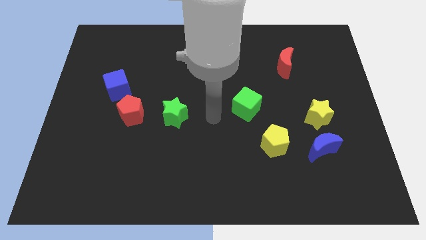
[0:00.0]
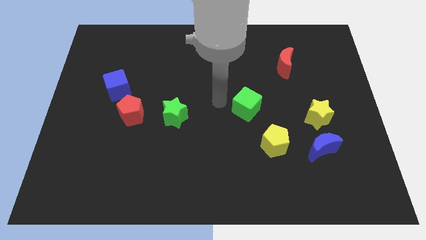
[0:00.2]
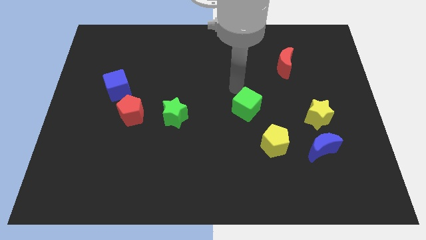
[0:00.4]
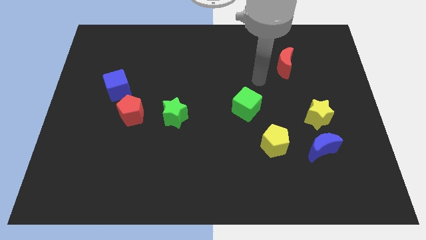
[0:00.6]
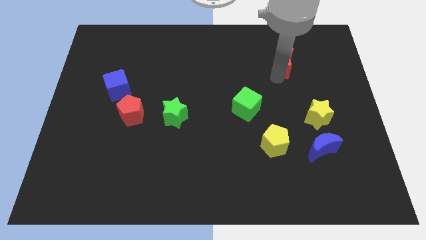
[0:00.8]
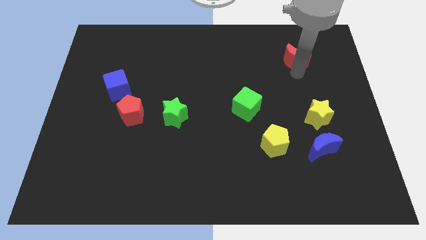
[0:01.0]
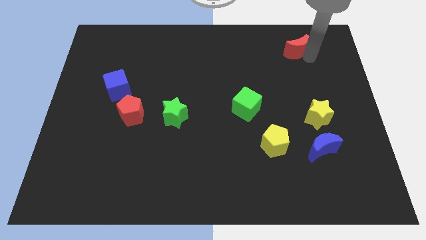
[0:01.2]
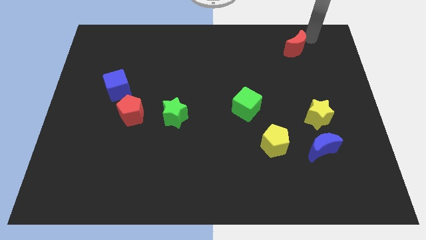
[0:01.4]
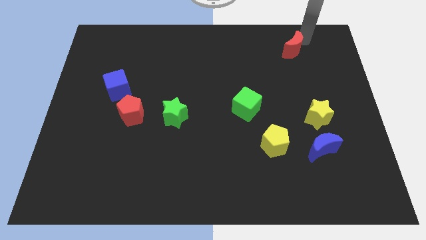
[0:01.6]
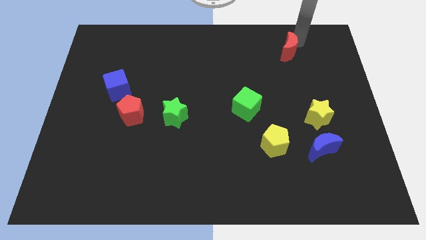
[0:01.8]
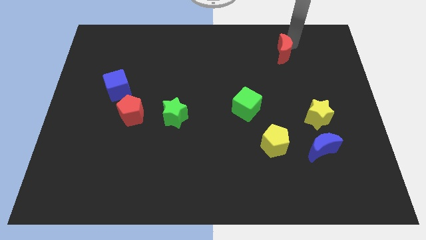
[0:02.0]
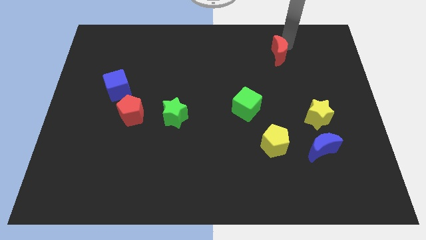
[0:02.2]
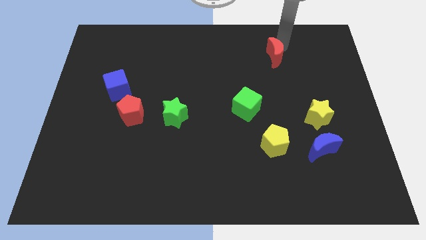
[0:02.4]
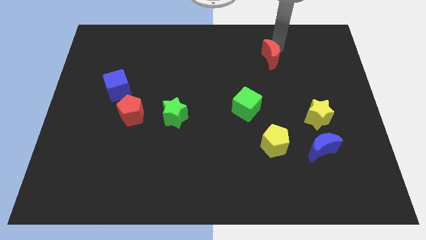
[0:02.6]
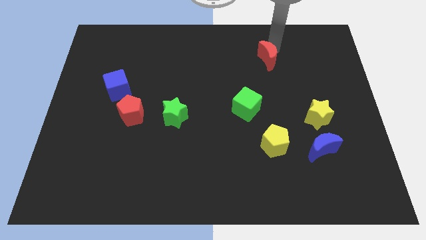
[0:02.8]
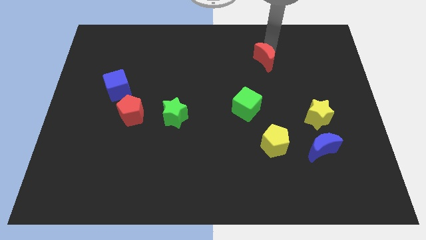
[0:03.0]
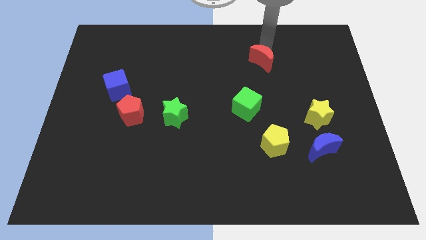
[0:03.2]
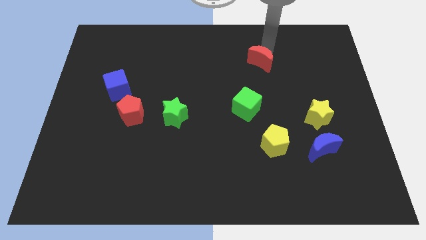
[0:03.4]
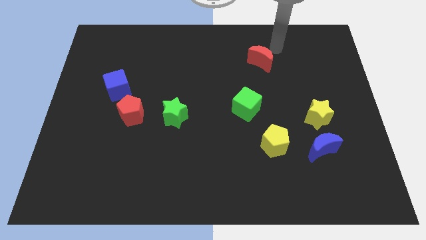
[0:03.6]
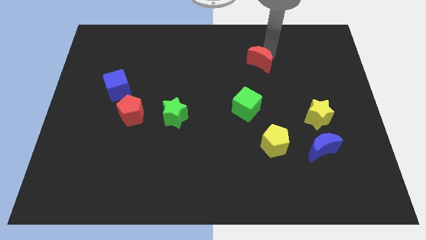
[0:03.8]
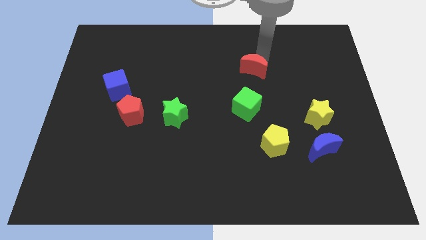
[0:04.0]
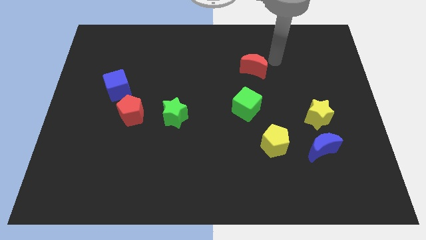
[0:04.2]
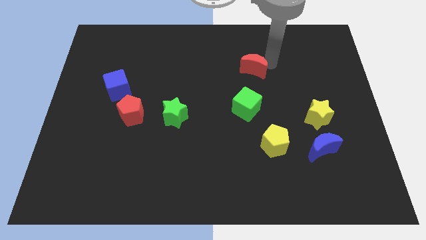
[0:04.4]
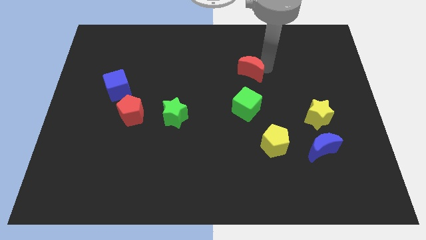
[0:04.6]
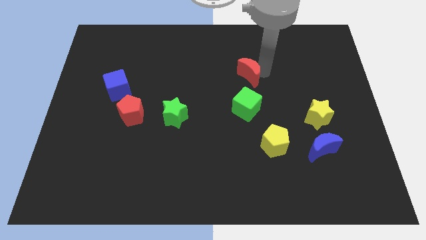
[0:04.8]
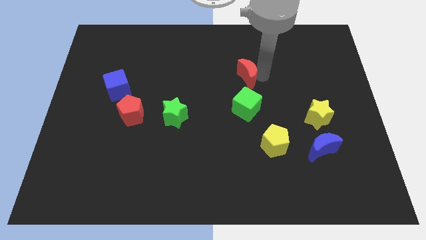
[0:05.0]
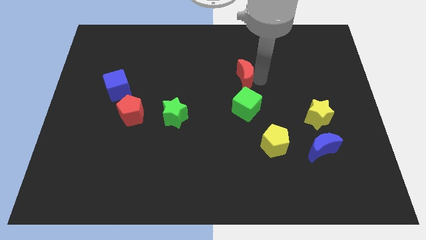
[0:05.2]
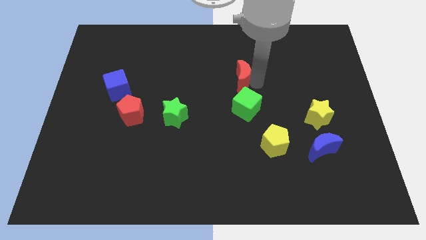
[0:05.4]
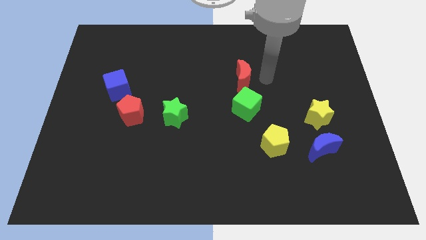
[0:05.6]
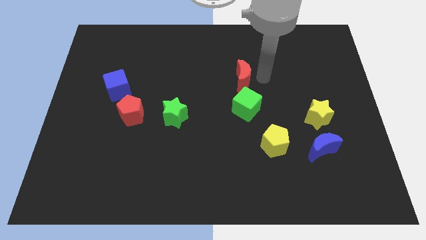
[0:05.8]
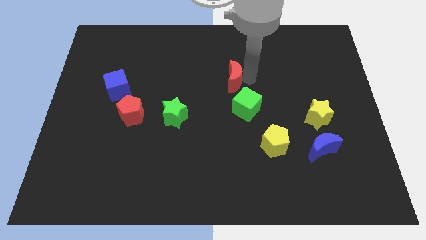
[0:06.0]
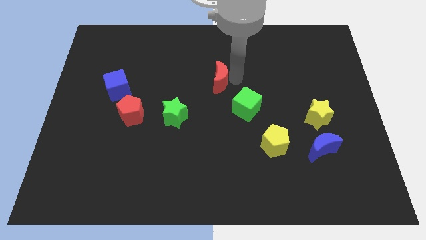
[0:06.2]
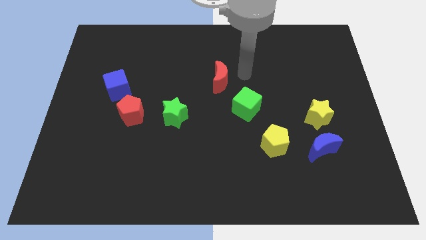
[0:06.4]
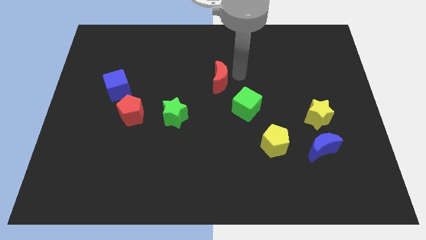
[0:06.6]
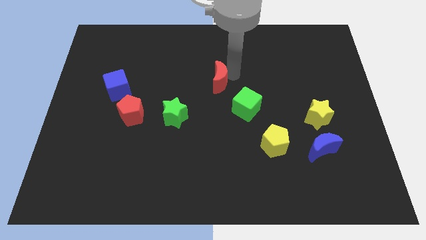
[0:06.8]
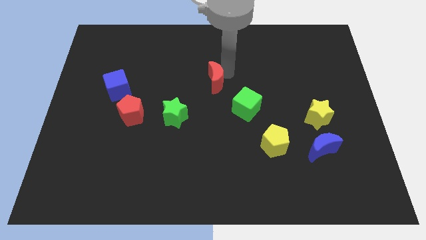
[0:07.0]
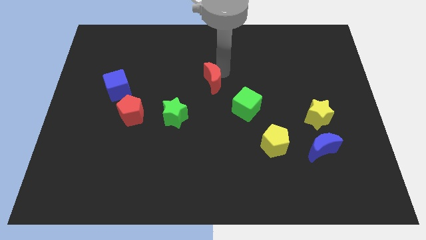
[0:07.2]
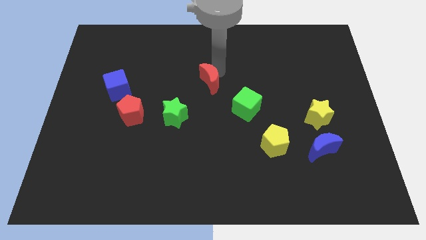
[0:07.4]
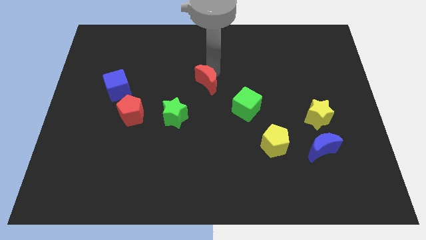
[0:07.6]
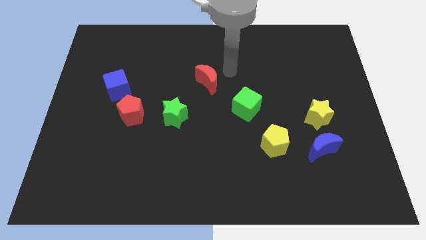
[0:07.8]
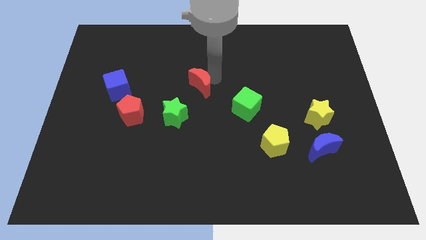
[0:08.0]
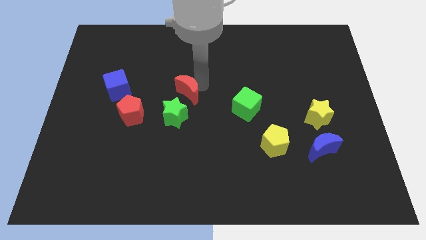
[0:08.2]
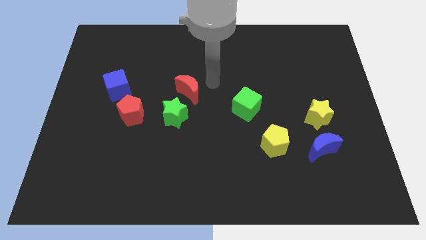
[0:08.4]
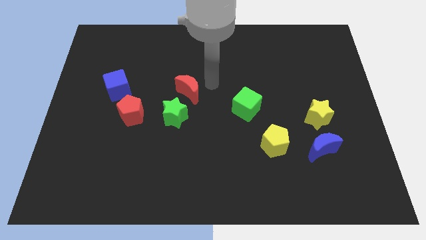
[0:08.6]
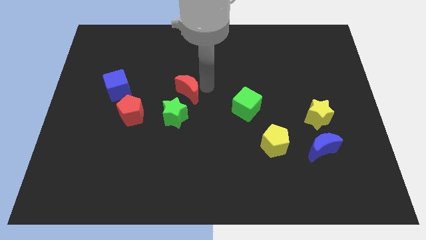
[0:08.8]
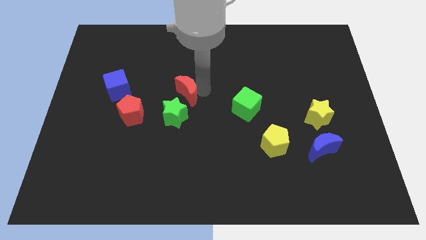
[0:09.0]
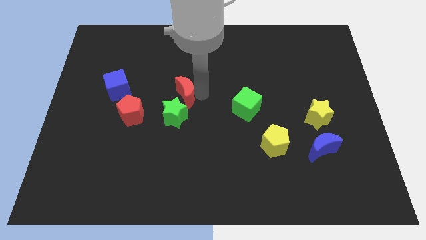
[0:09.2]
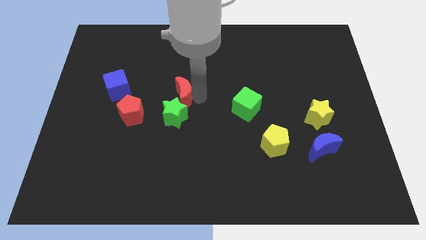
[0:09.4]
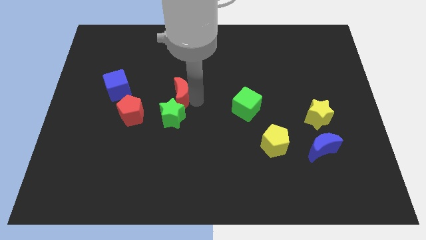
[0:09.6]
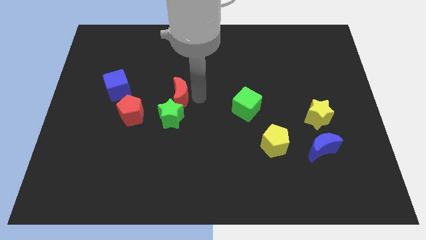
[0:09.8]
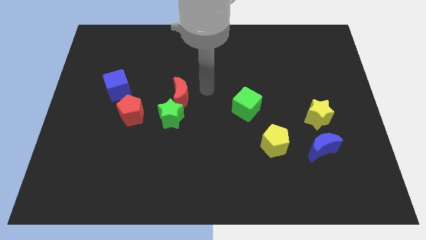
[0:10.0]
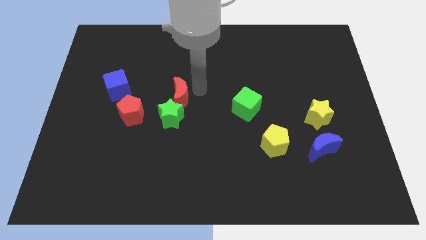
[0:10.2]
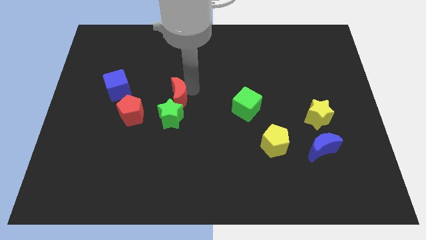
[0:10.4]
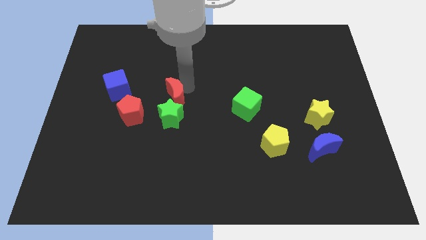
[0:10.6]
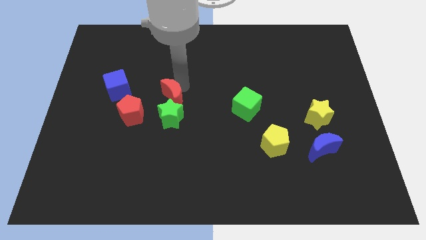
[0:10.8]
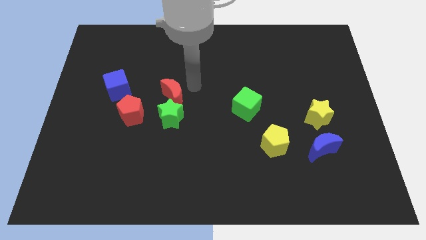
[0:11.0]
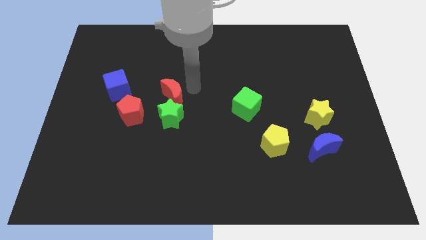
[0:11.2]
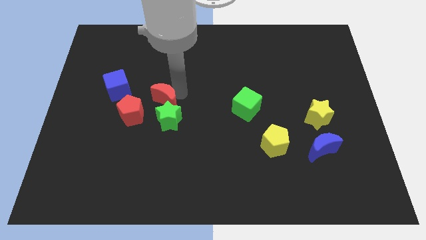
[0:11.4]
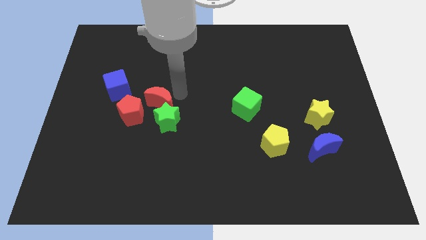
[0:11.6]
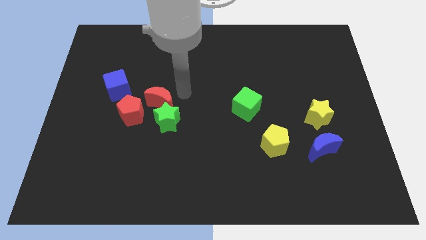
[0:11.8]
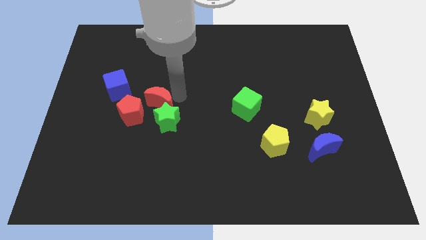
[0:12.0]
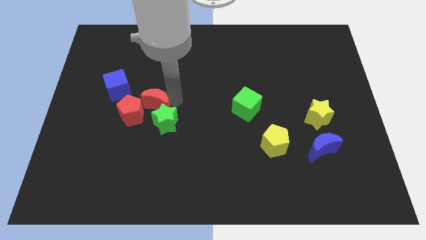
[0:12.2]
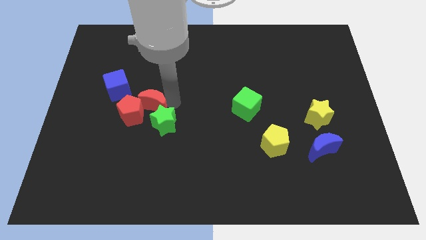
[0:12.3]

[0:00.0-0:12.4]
put the red moon next to the red pentagon

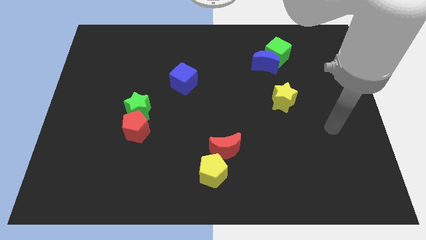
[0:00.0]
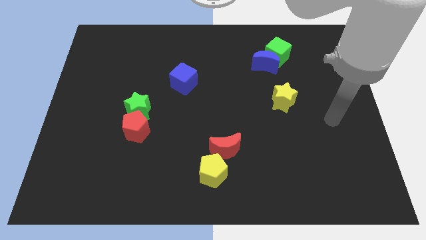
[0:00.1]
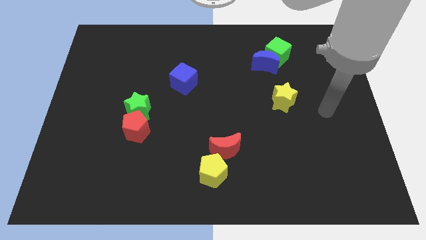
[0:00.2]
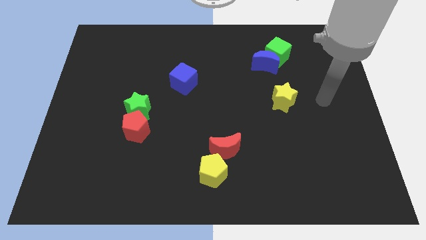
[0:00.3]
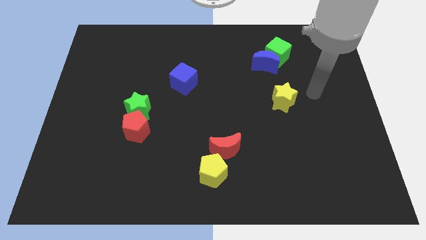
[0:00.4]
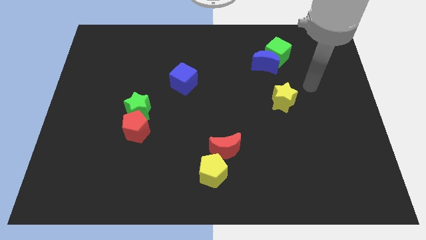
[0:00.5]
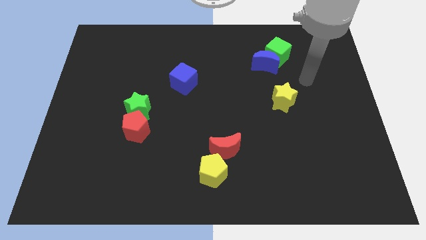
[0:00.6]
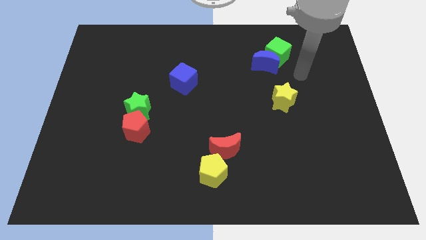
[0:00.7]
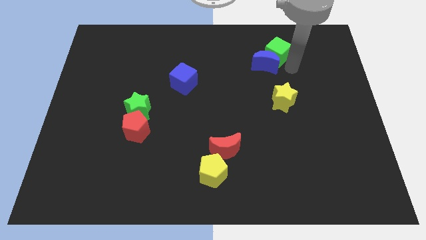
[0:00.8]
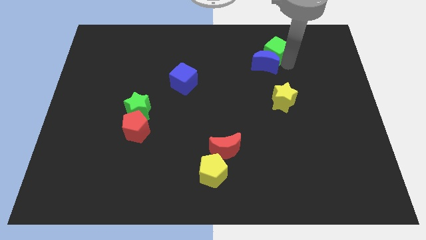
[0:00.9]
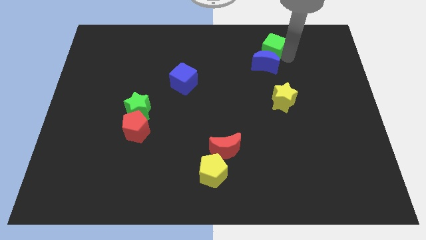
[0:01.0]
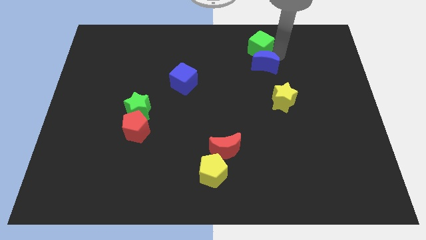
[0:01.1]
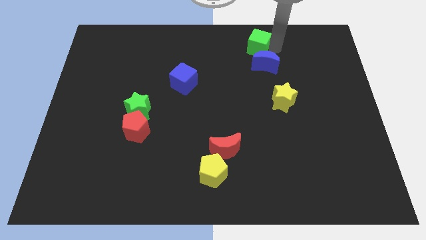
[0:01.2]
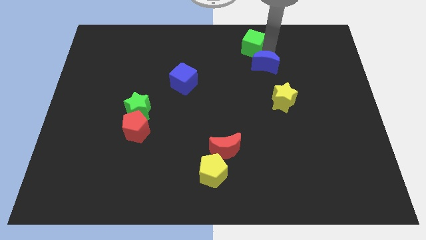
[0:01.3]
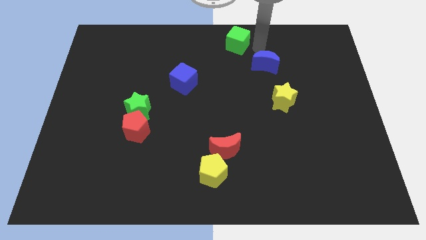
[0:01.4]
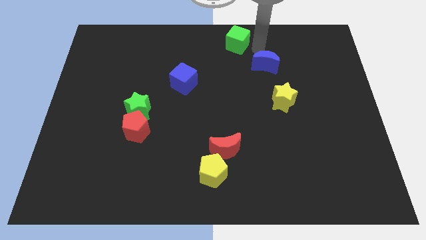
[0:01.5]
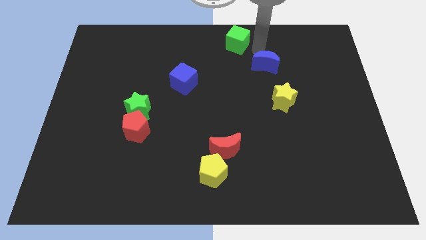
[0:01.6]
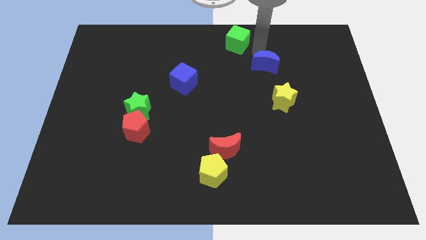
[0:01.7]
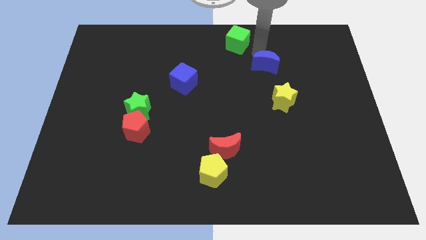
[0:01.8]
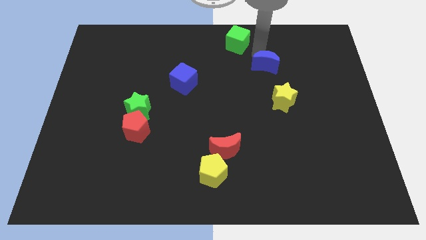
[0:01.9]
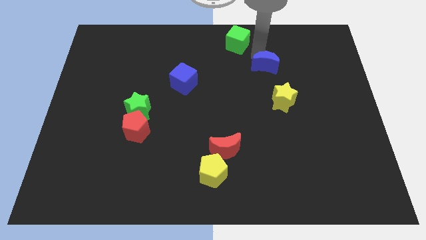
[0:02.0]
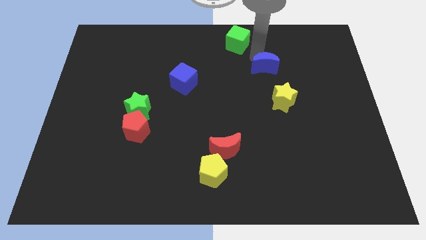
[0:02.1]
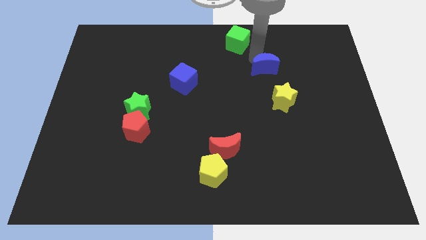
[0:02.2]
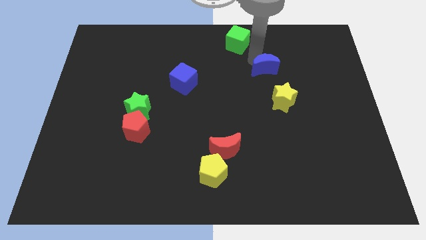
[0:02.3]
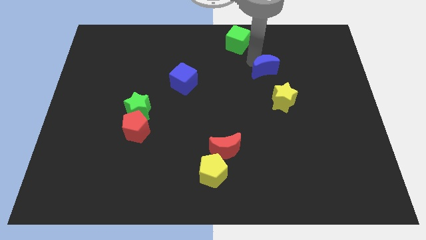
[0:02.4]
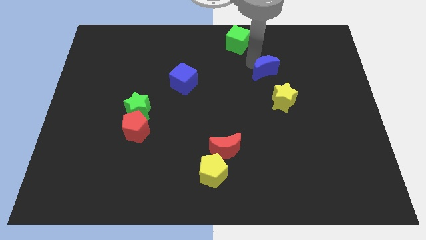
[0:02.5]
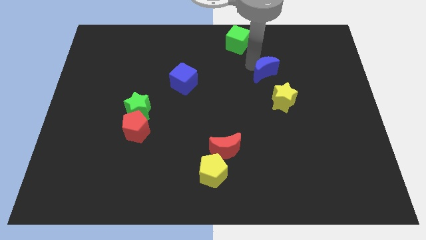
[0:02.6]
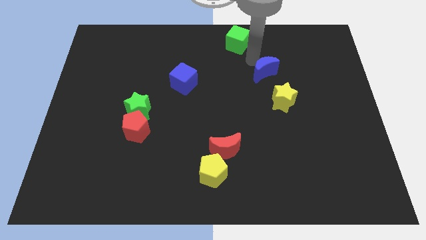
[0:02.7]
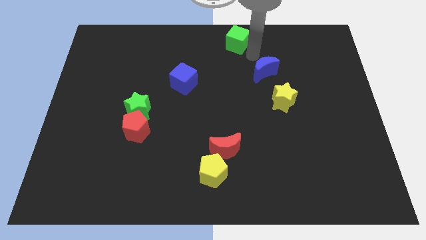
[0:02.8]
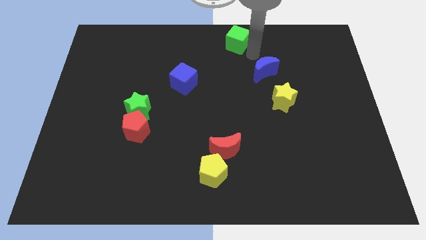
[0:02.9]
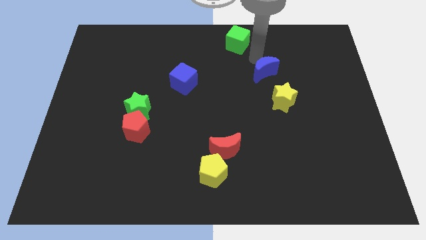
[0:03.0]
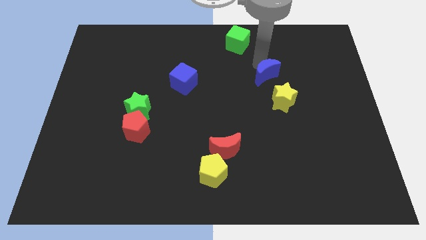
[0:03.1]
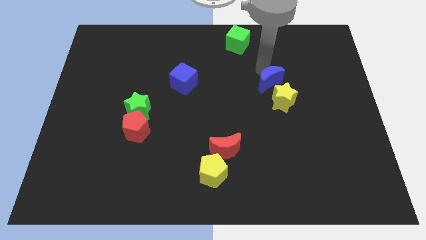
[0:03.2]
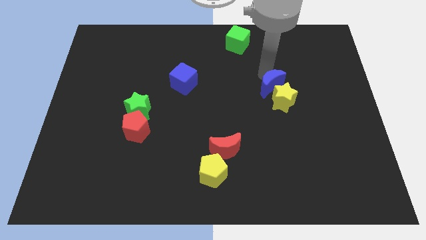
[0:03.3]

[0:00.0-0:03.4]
put the blue moon next to the yellow star
